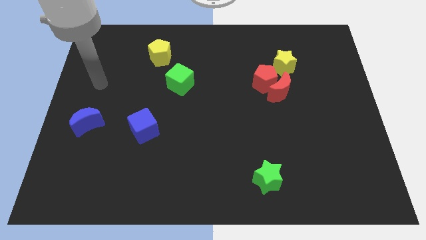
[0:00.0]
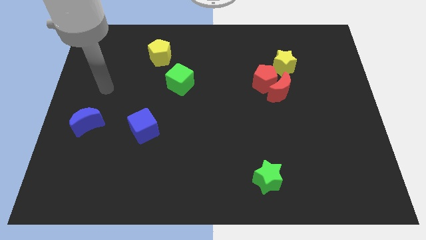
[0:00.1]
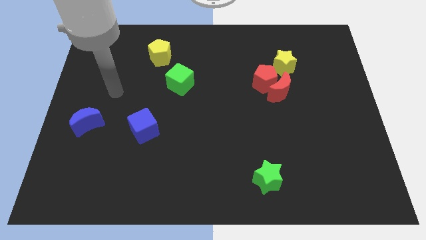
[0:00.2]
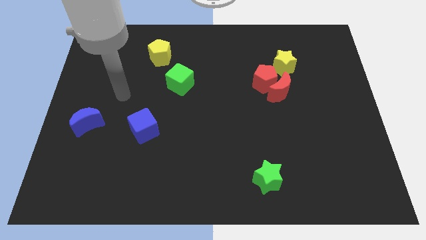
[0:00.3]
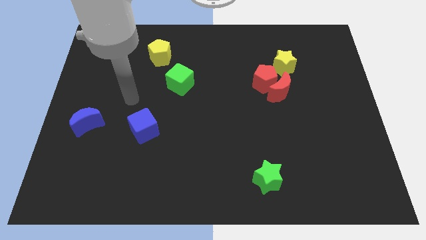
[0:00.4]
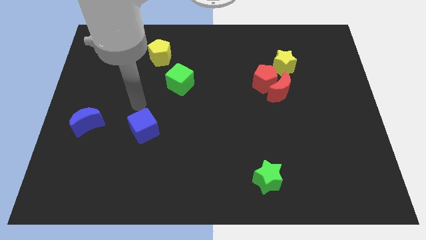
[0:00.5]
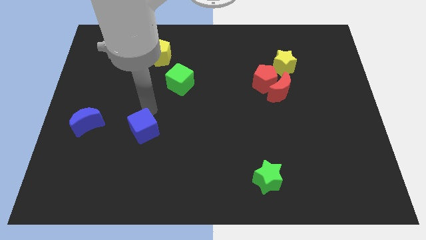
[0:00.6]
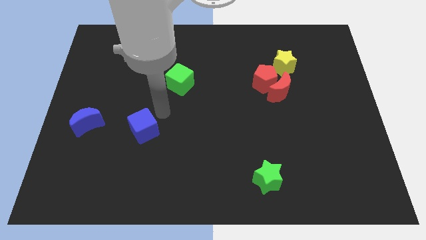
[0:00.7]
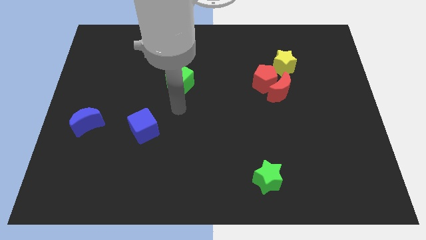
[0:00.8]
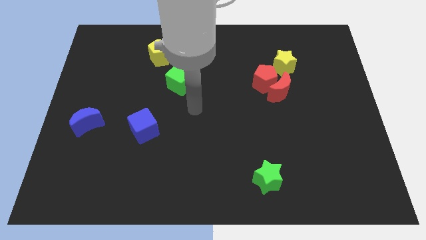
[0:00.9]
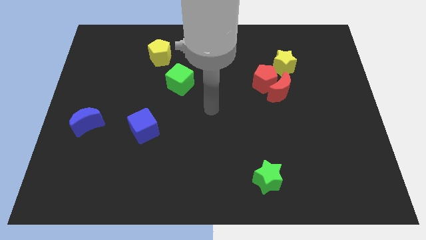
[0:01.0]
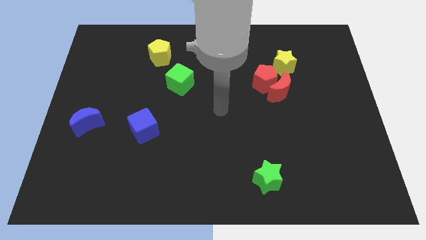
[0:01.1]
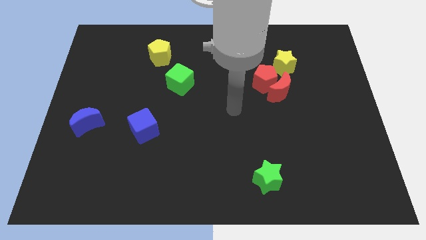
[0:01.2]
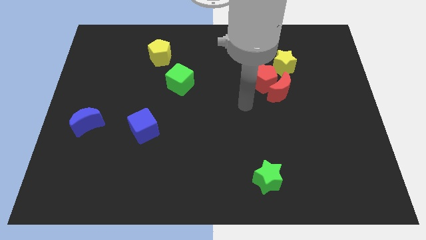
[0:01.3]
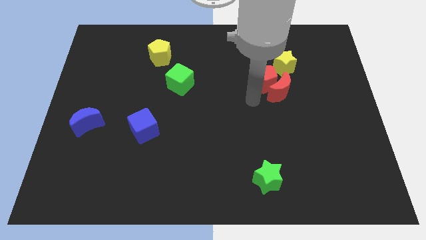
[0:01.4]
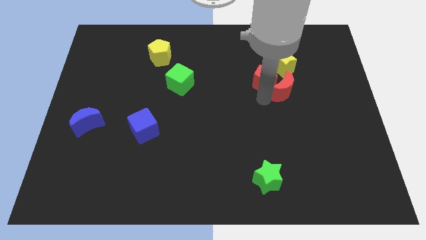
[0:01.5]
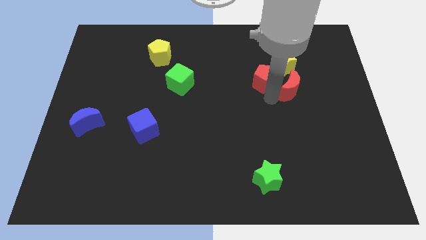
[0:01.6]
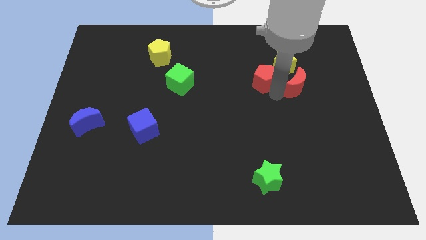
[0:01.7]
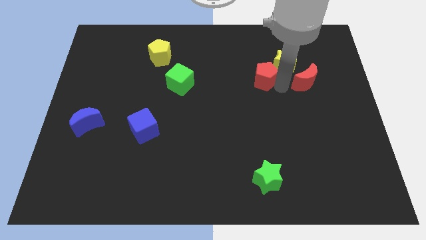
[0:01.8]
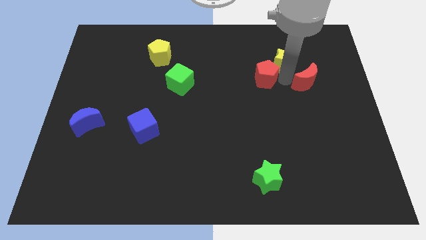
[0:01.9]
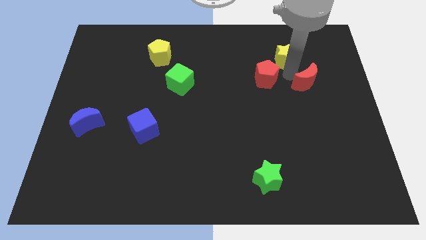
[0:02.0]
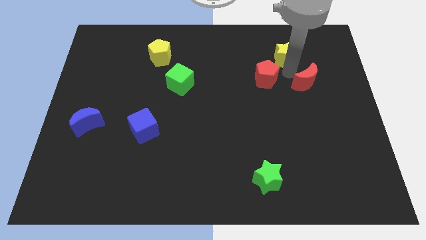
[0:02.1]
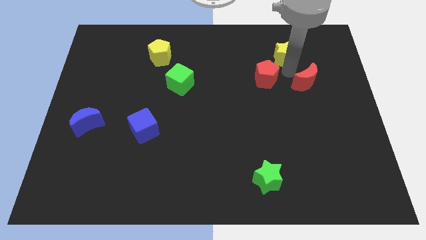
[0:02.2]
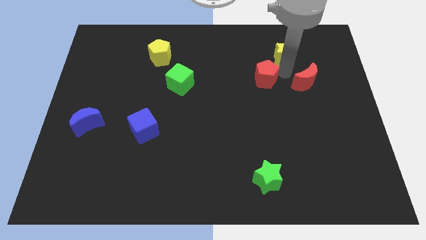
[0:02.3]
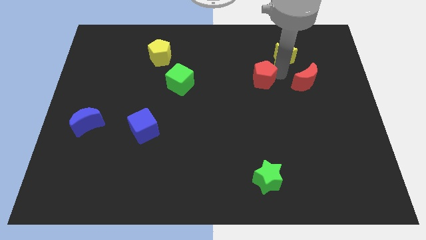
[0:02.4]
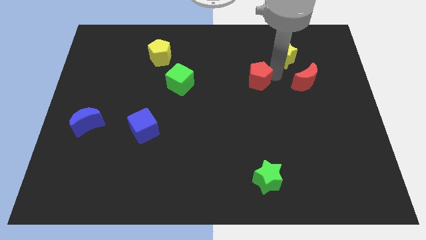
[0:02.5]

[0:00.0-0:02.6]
pull the red pentagon apart from the red moon and yellow star

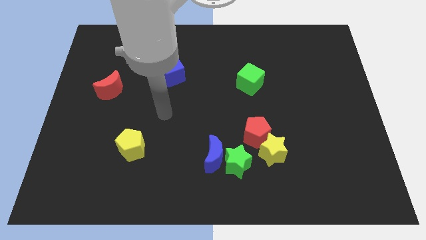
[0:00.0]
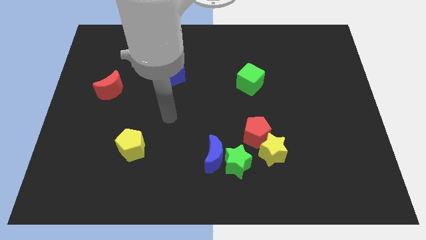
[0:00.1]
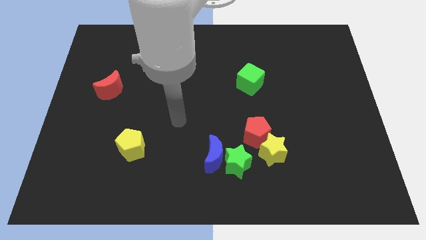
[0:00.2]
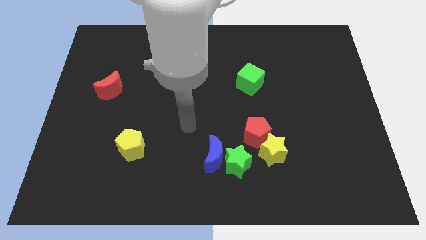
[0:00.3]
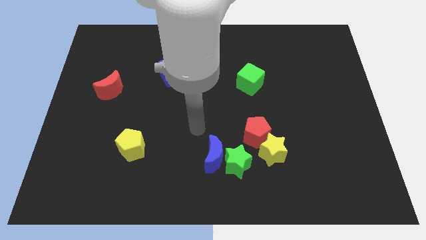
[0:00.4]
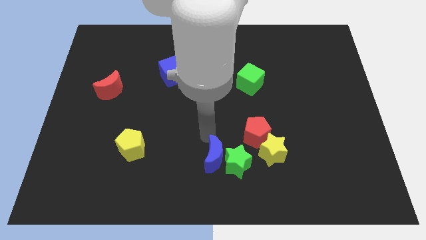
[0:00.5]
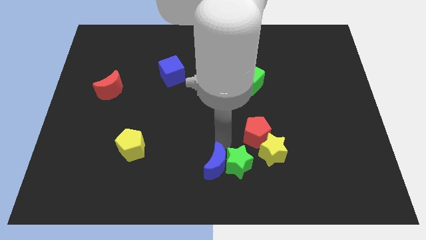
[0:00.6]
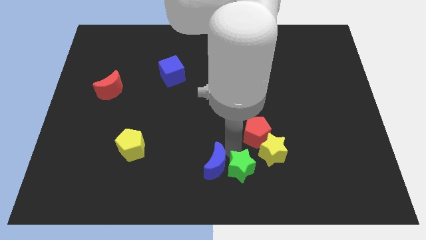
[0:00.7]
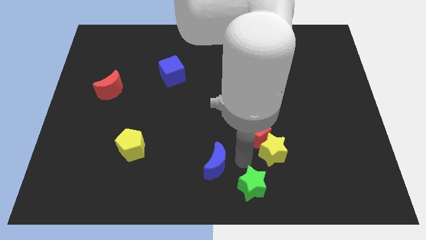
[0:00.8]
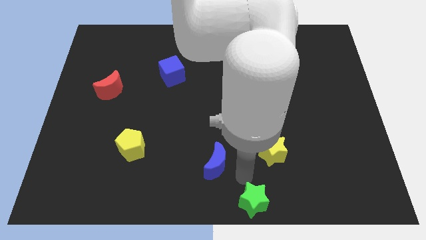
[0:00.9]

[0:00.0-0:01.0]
pull the blue moon apart from the green star

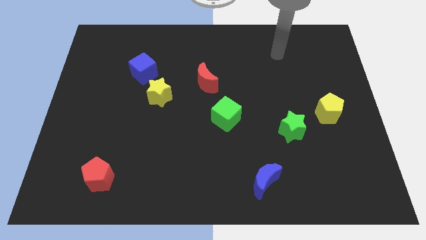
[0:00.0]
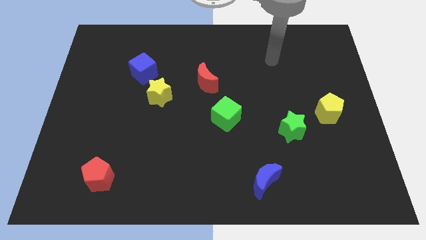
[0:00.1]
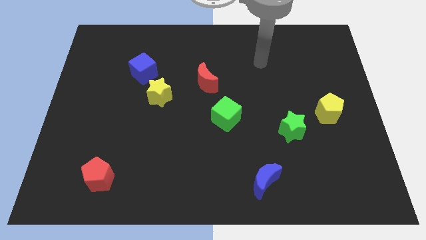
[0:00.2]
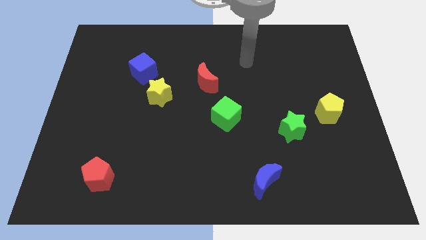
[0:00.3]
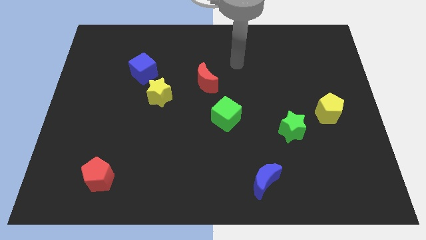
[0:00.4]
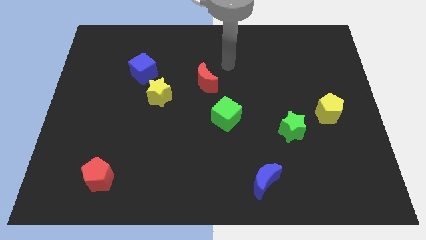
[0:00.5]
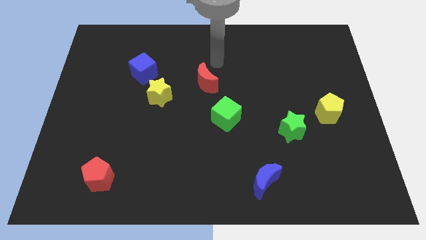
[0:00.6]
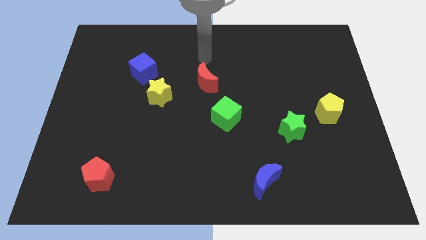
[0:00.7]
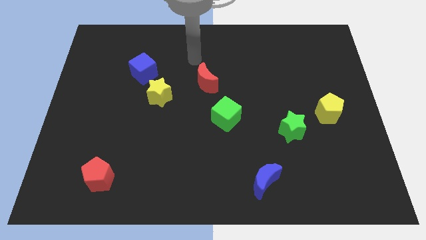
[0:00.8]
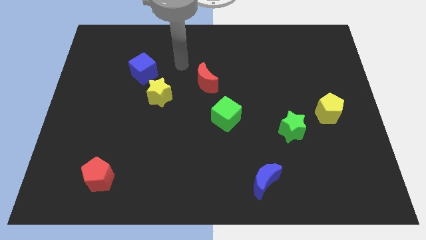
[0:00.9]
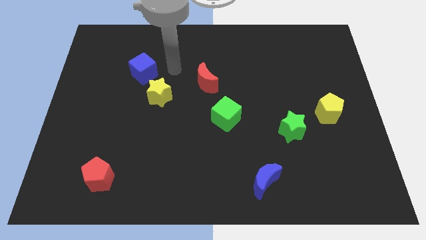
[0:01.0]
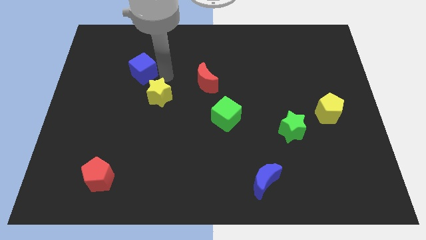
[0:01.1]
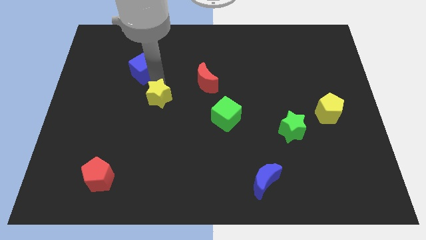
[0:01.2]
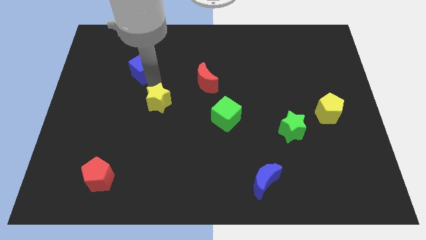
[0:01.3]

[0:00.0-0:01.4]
pull the blue cube apart from the yellow star

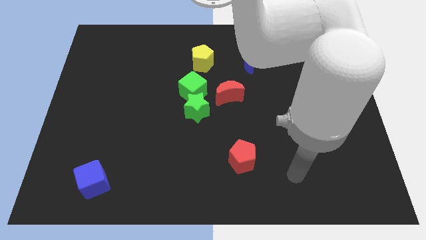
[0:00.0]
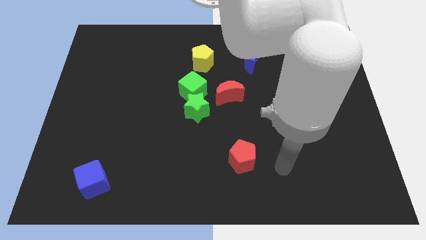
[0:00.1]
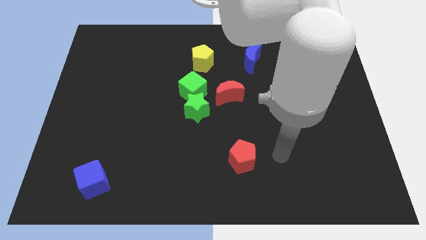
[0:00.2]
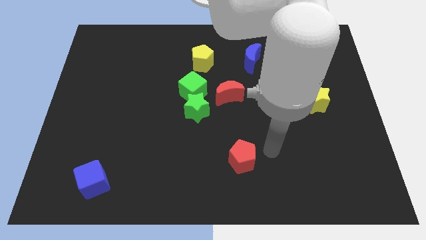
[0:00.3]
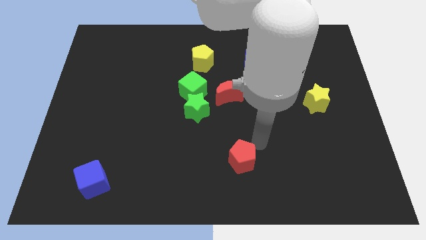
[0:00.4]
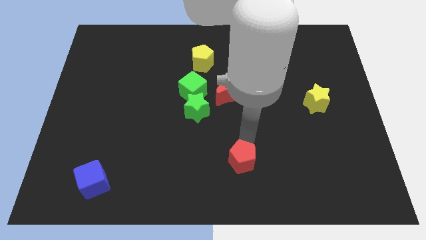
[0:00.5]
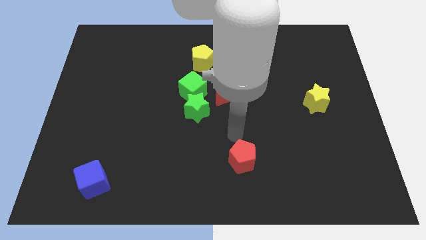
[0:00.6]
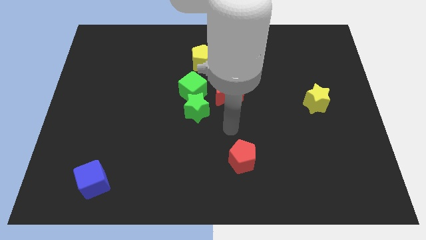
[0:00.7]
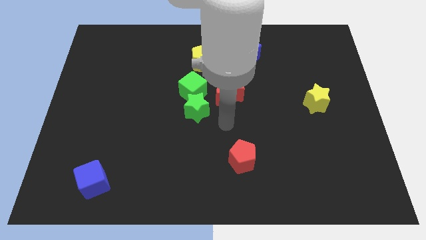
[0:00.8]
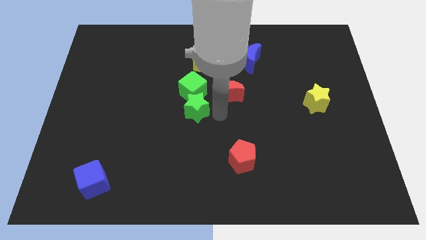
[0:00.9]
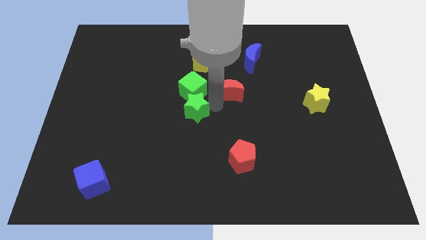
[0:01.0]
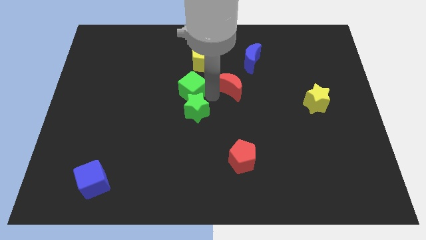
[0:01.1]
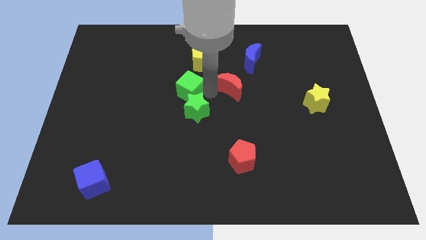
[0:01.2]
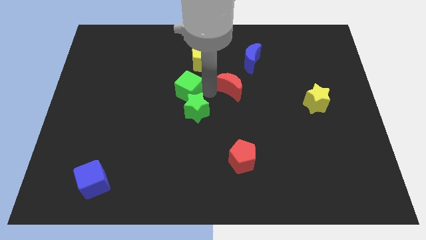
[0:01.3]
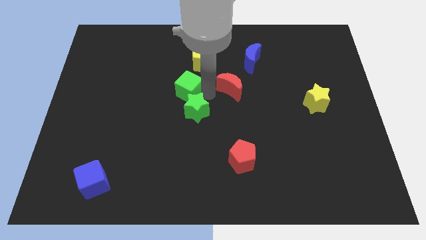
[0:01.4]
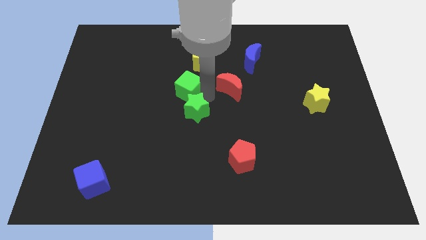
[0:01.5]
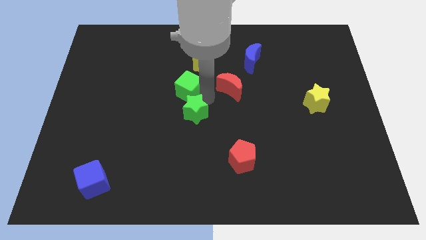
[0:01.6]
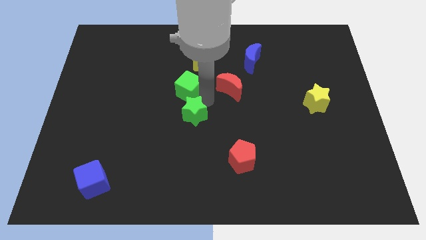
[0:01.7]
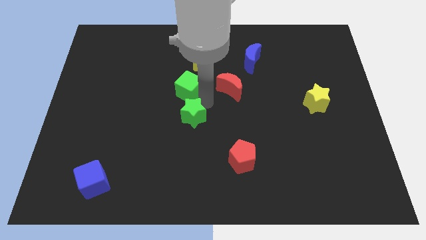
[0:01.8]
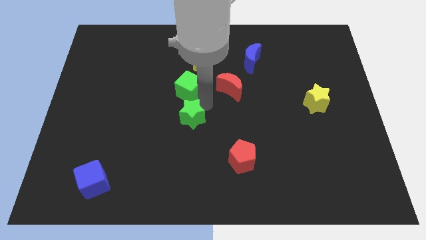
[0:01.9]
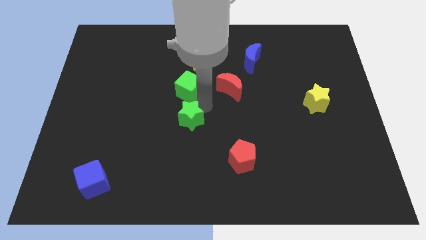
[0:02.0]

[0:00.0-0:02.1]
move the green star away from the green cube and red moon

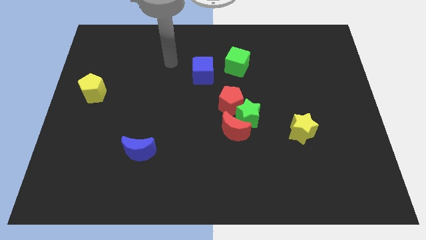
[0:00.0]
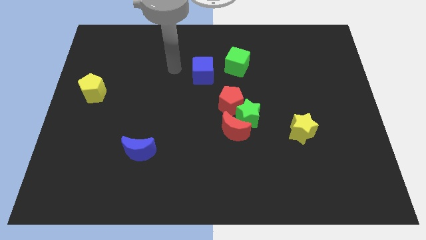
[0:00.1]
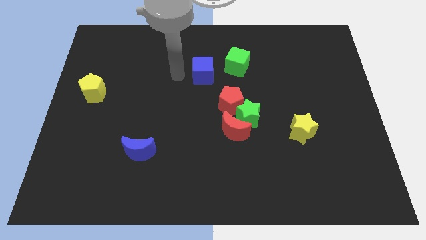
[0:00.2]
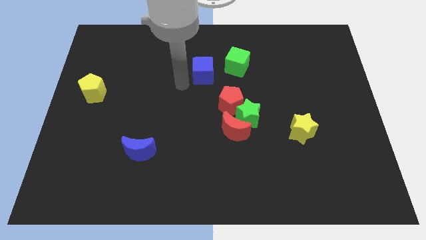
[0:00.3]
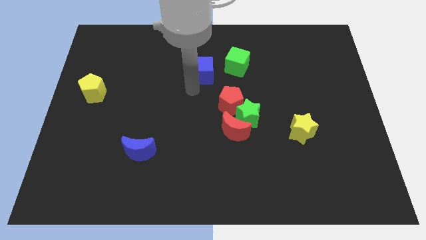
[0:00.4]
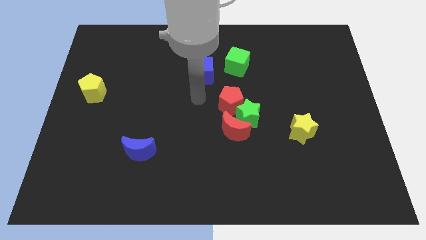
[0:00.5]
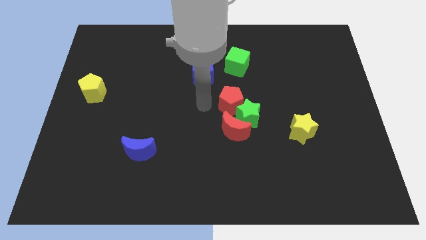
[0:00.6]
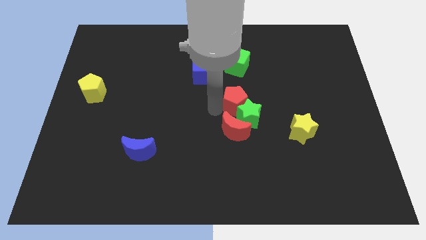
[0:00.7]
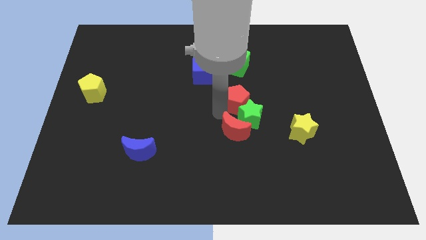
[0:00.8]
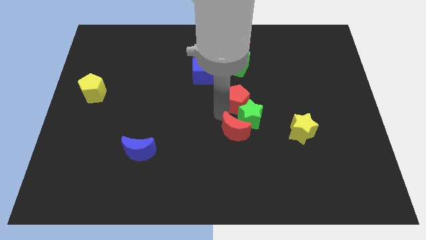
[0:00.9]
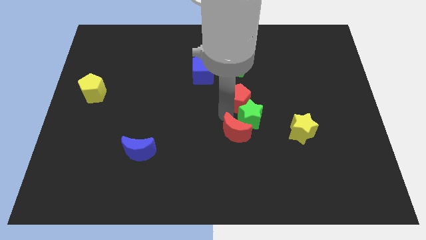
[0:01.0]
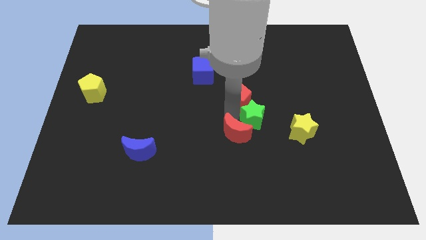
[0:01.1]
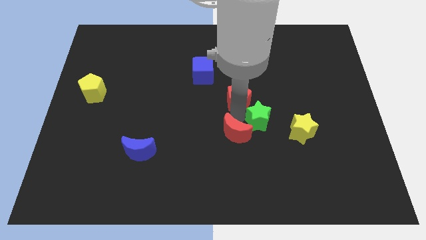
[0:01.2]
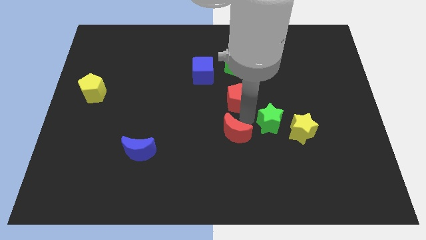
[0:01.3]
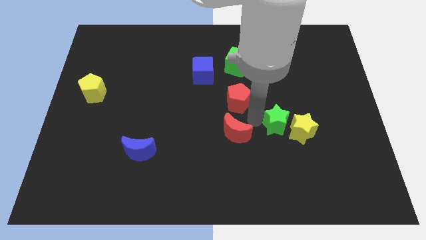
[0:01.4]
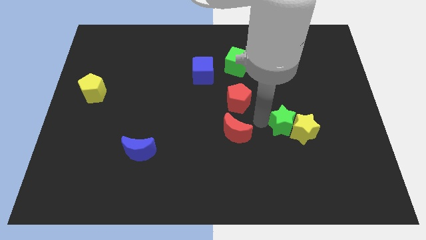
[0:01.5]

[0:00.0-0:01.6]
pull the green star apart from the red moon and red pentagon

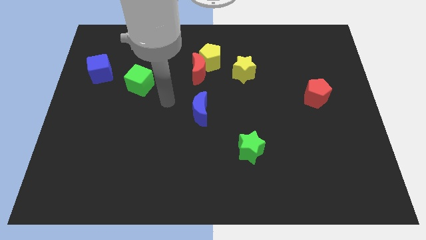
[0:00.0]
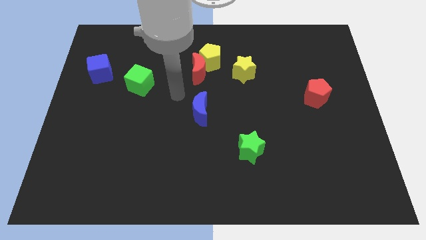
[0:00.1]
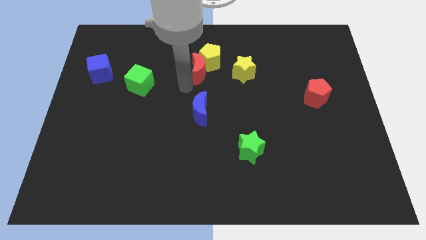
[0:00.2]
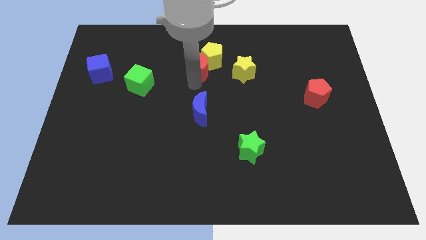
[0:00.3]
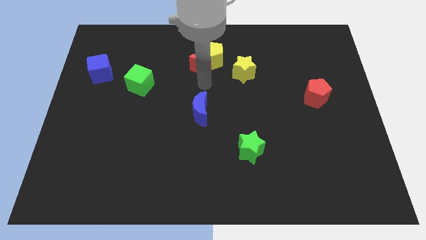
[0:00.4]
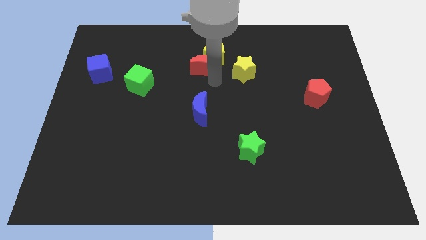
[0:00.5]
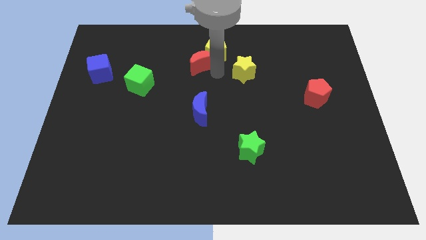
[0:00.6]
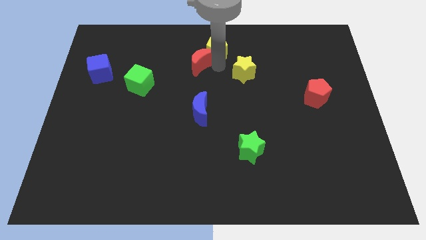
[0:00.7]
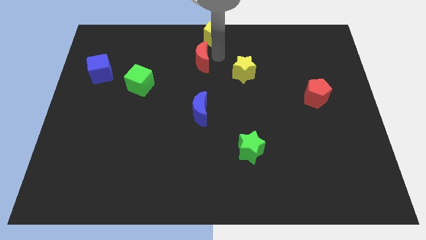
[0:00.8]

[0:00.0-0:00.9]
move the red moon away from the yellow pentagon
